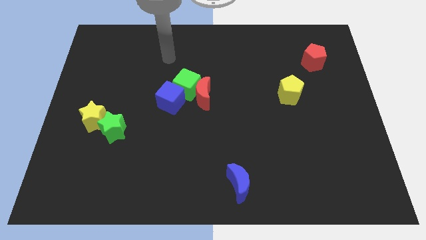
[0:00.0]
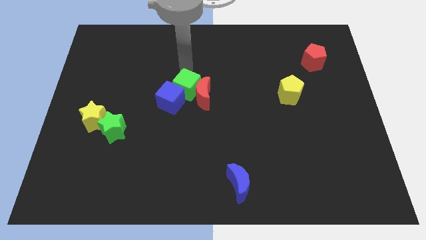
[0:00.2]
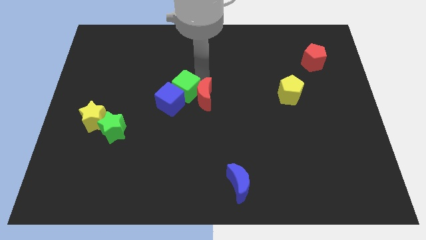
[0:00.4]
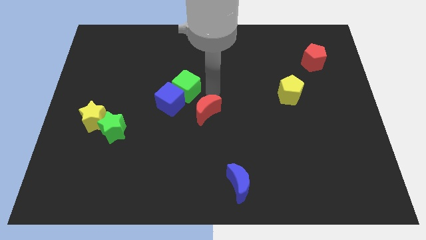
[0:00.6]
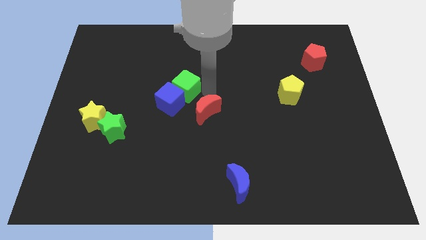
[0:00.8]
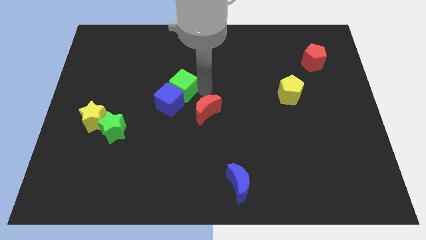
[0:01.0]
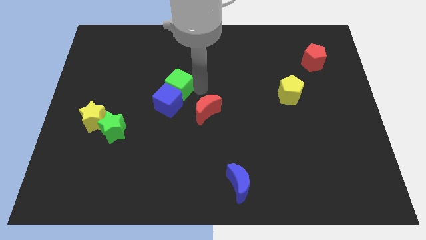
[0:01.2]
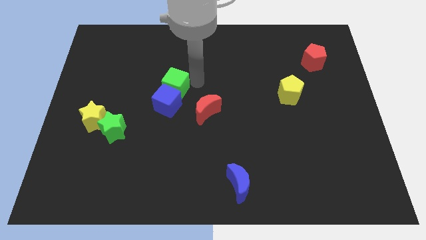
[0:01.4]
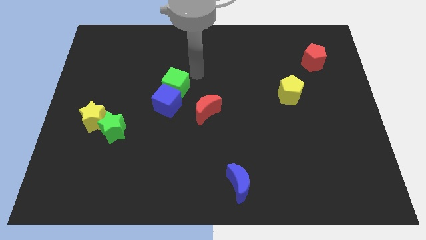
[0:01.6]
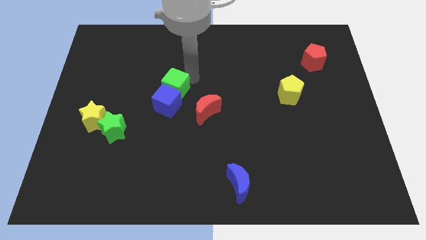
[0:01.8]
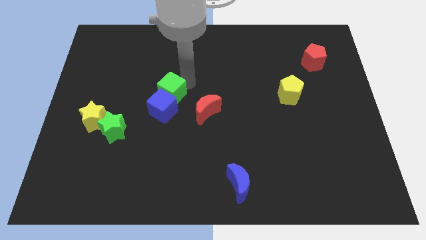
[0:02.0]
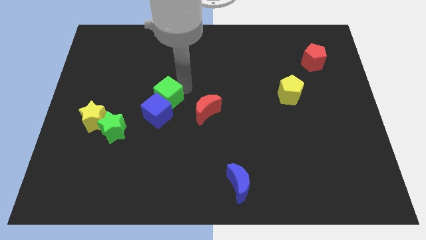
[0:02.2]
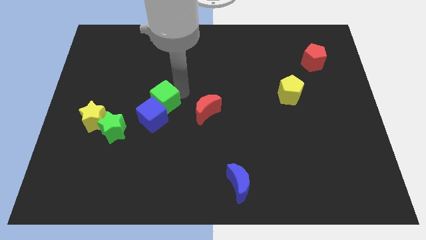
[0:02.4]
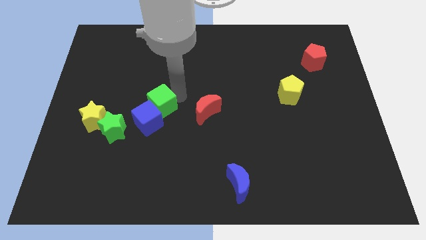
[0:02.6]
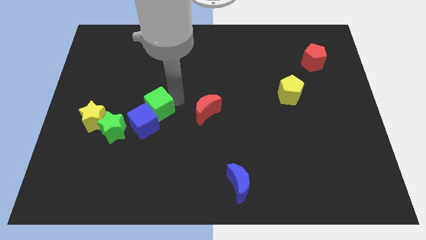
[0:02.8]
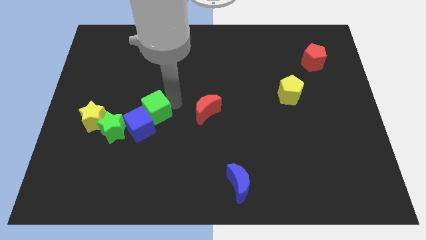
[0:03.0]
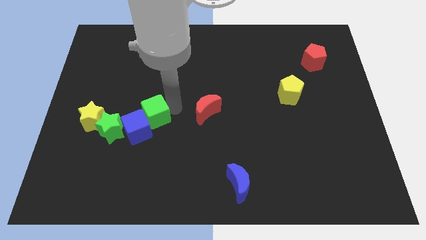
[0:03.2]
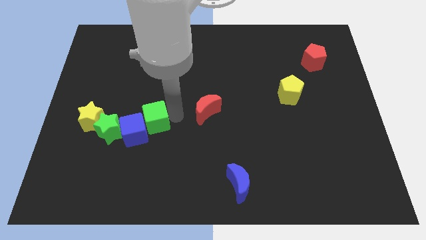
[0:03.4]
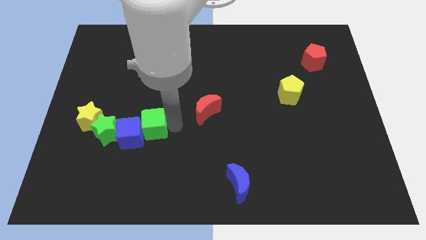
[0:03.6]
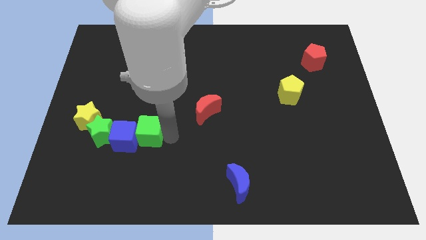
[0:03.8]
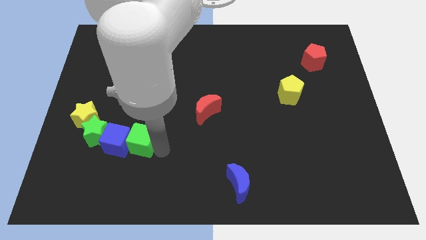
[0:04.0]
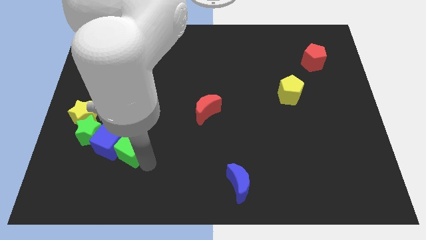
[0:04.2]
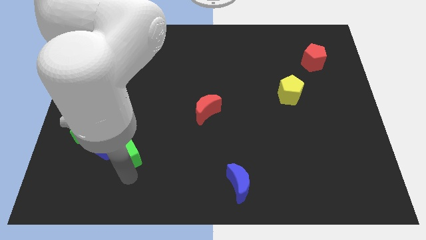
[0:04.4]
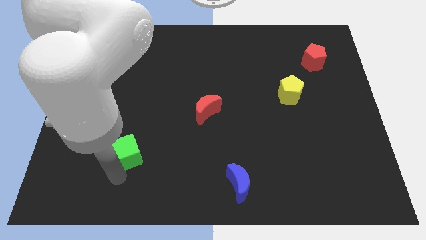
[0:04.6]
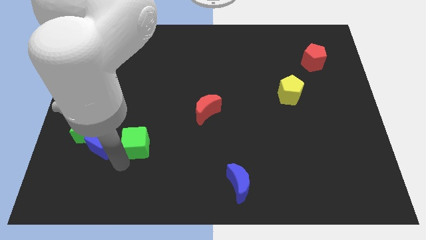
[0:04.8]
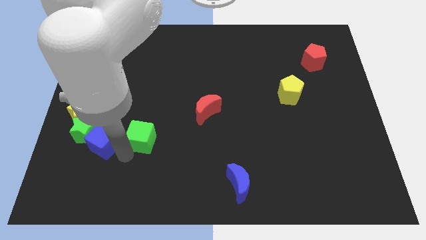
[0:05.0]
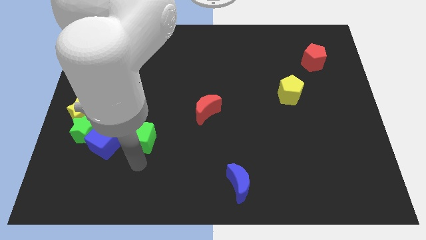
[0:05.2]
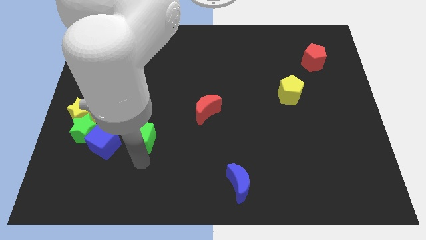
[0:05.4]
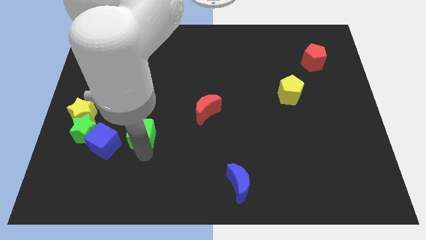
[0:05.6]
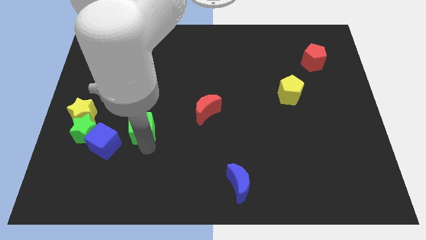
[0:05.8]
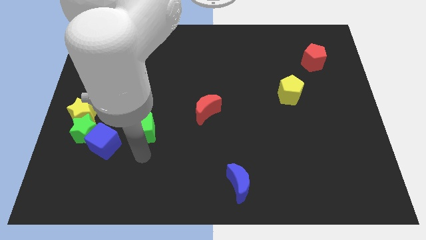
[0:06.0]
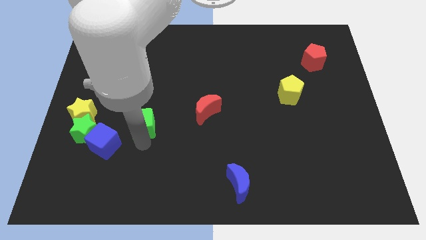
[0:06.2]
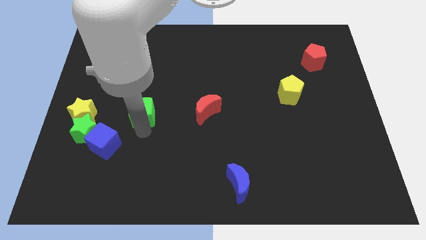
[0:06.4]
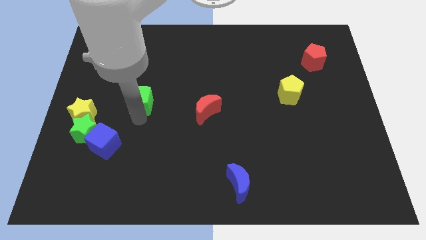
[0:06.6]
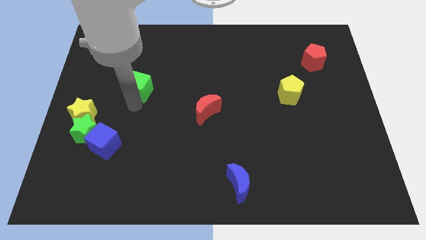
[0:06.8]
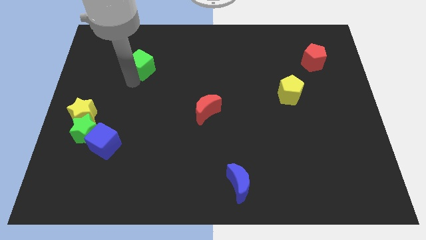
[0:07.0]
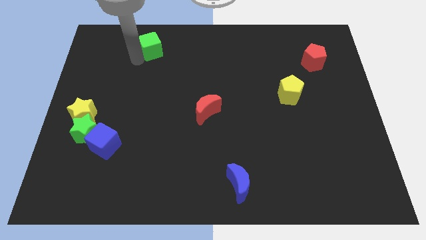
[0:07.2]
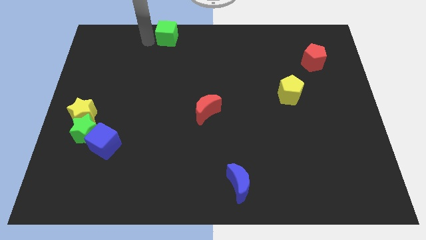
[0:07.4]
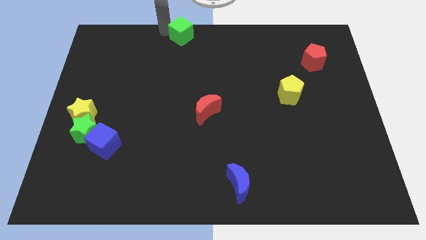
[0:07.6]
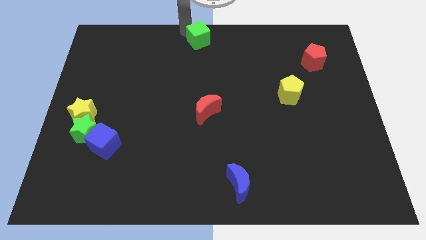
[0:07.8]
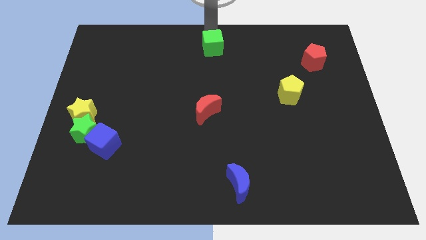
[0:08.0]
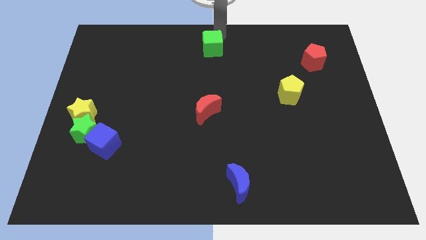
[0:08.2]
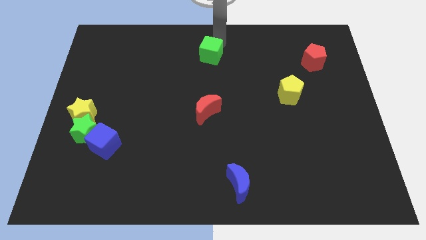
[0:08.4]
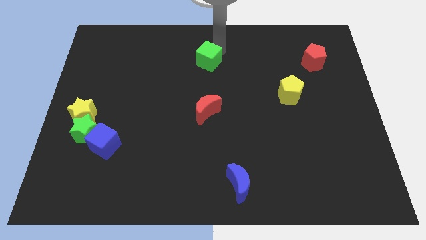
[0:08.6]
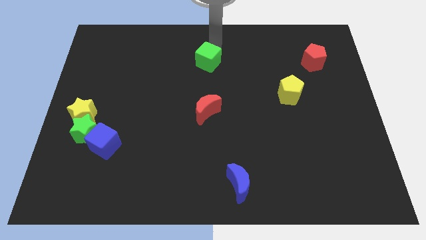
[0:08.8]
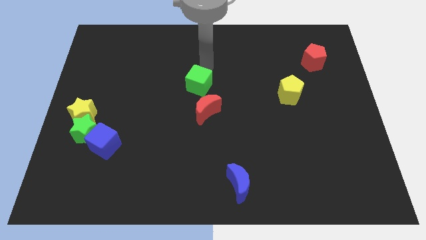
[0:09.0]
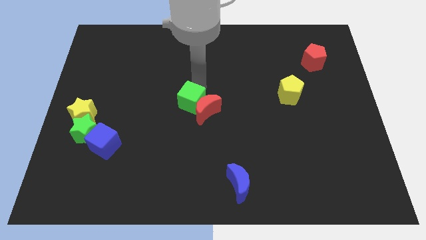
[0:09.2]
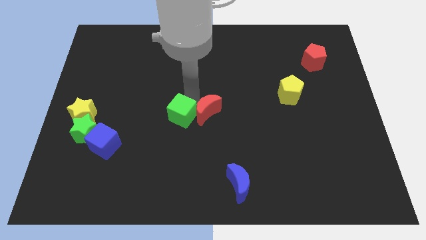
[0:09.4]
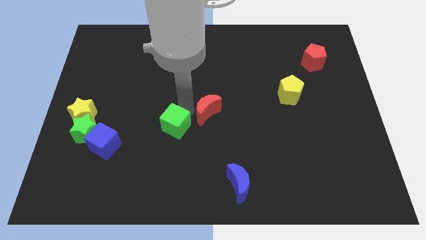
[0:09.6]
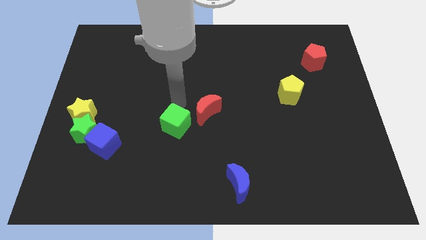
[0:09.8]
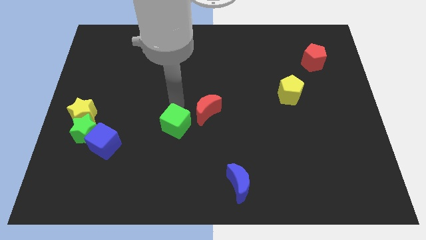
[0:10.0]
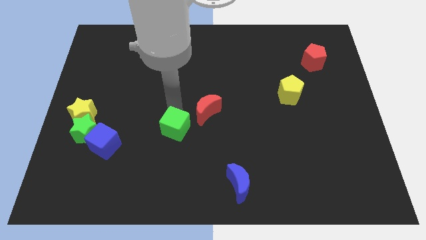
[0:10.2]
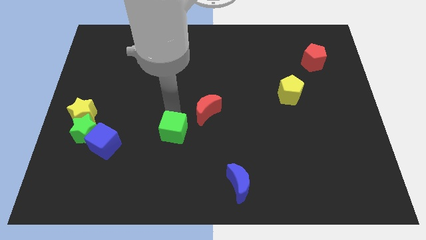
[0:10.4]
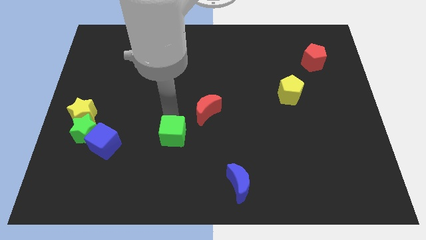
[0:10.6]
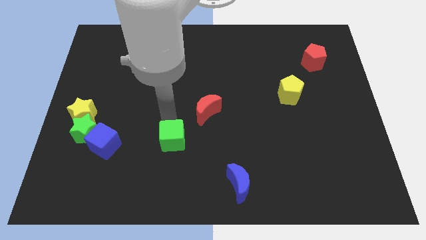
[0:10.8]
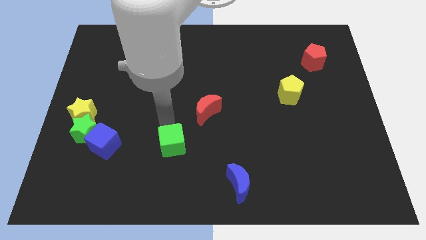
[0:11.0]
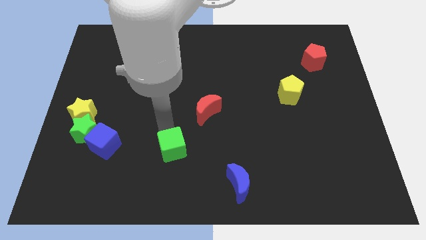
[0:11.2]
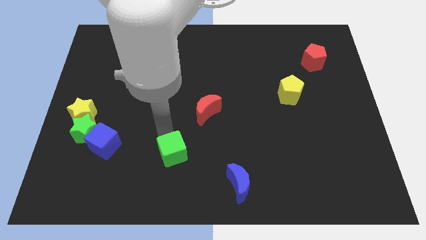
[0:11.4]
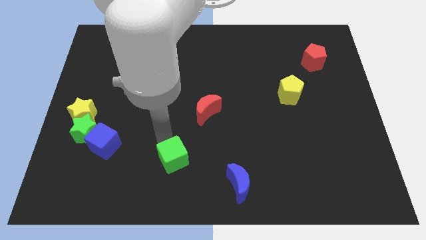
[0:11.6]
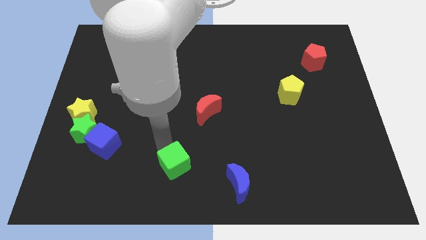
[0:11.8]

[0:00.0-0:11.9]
push the green cube to the bottom side
